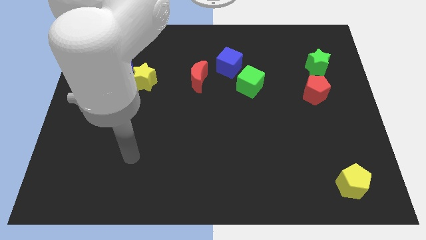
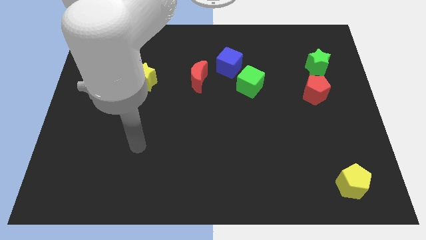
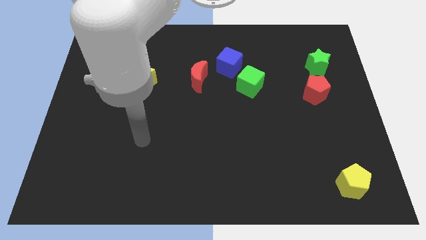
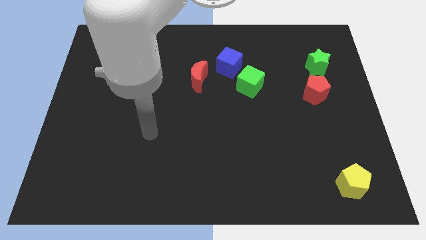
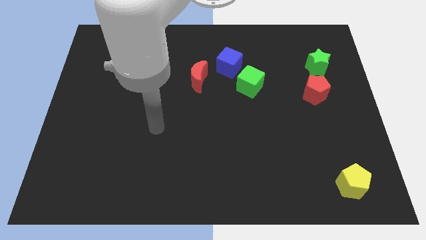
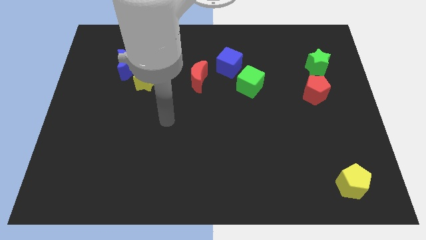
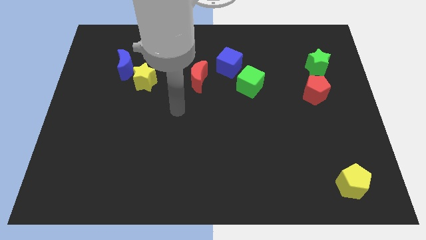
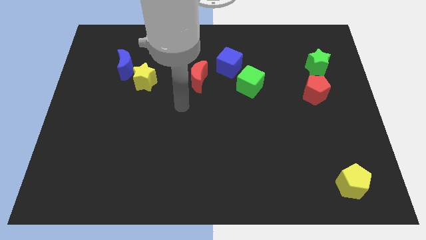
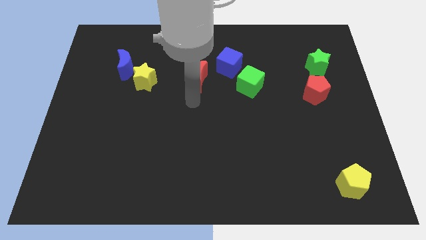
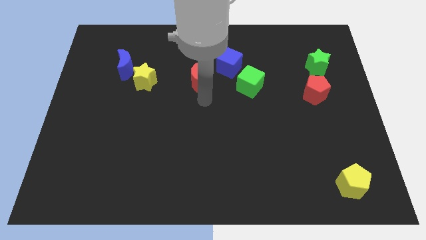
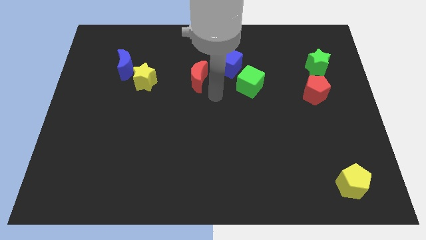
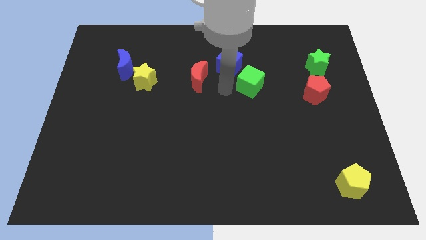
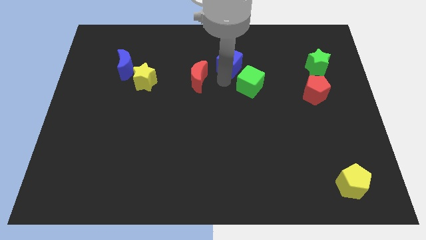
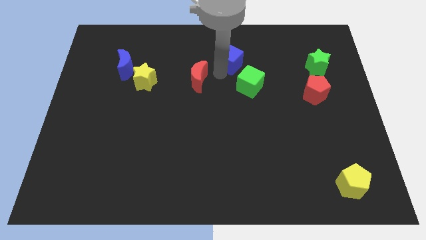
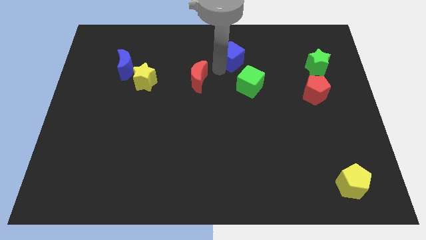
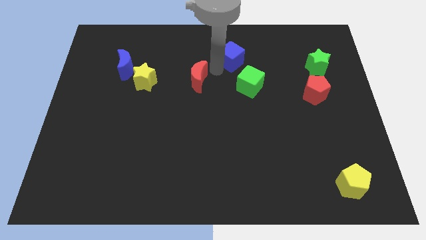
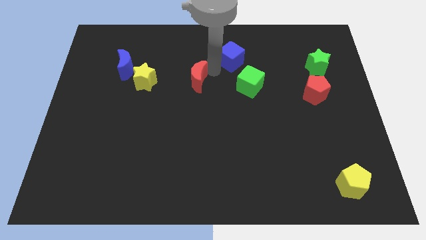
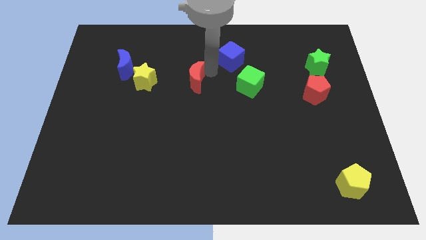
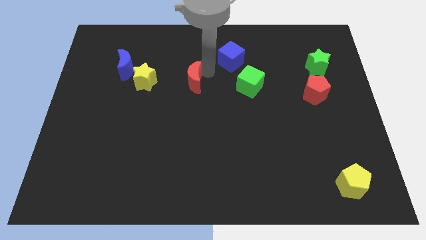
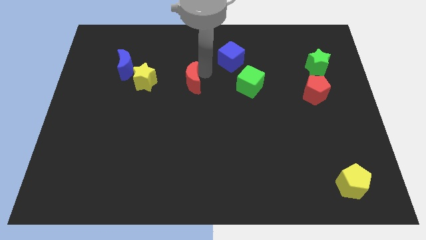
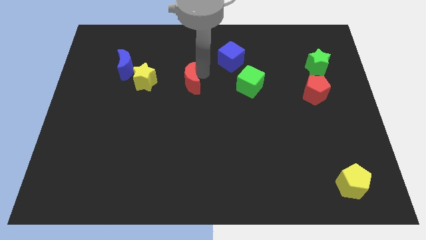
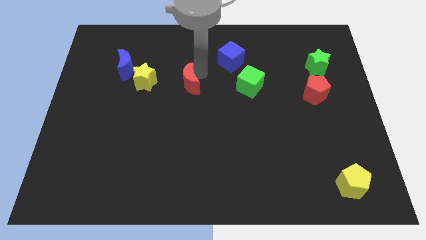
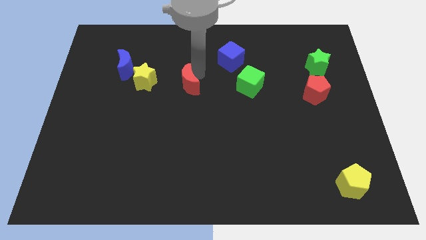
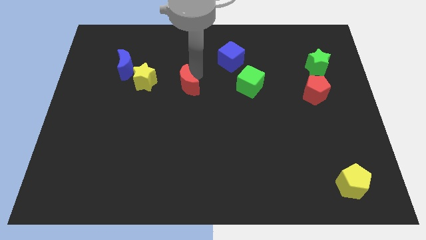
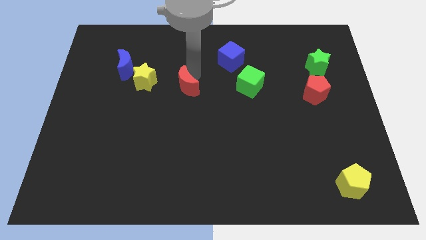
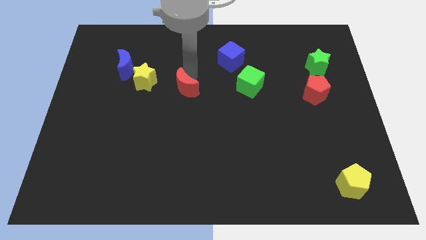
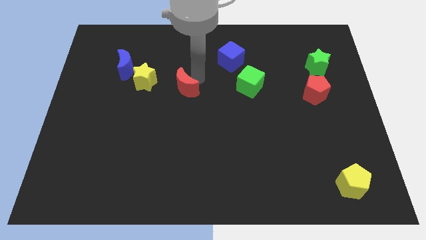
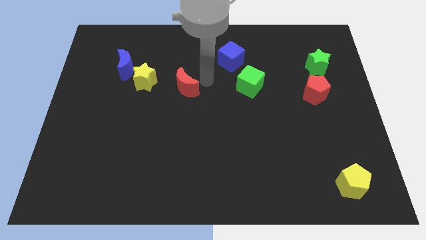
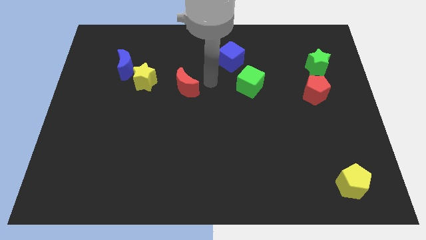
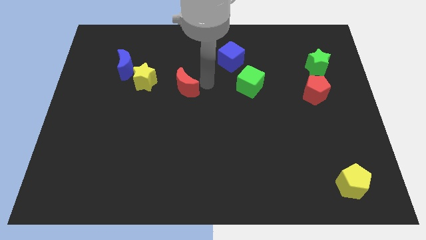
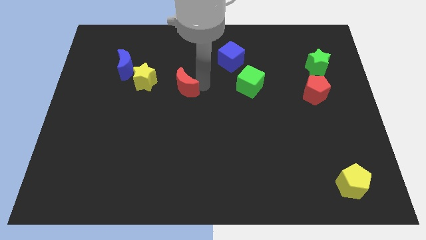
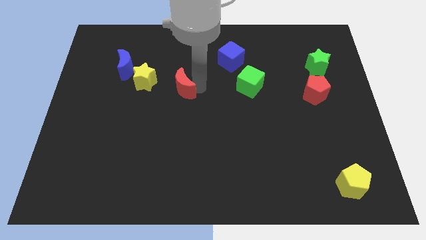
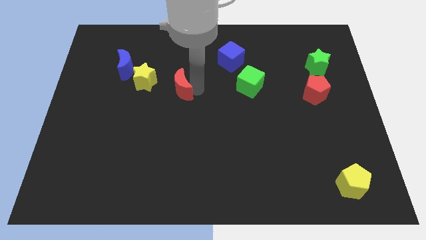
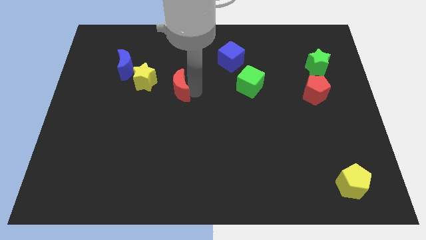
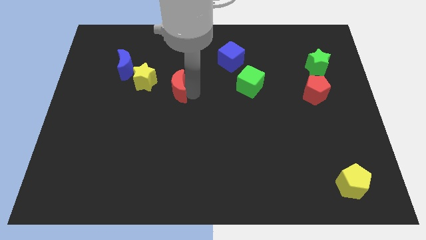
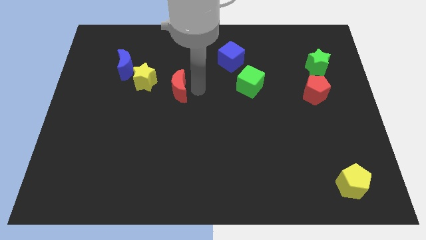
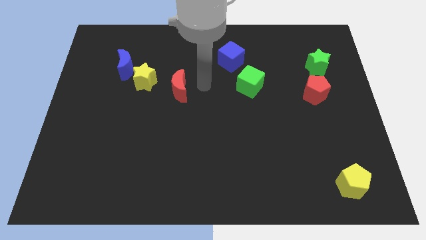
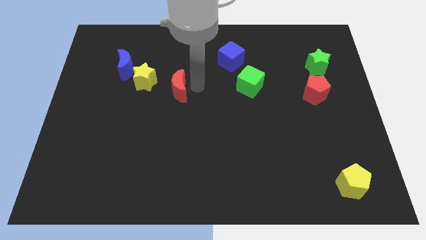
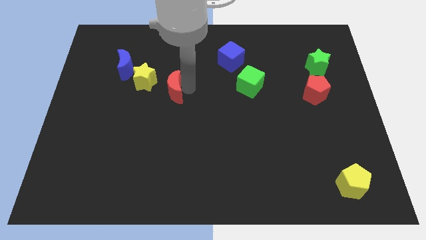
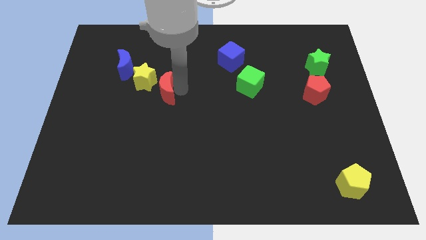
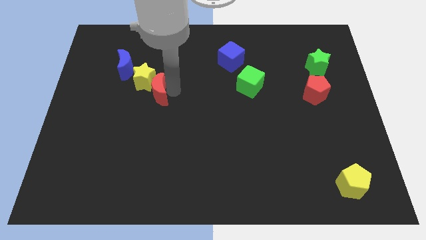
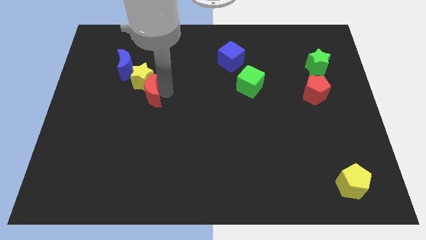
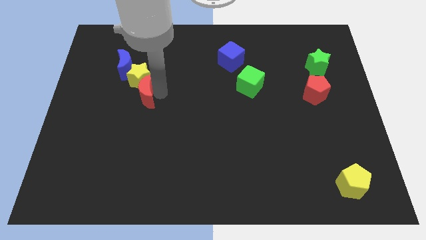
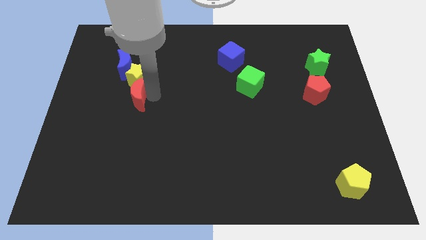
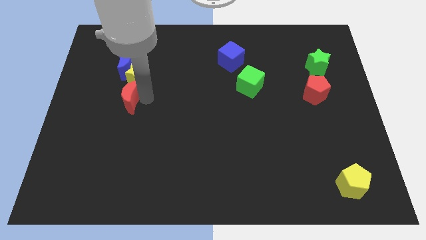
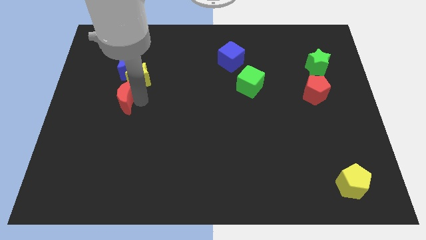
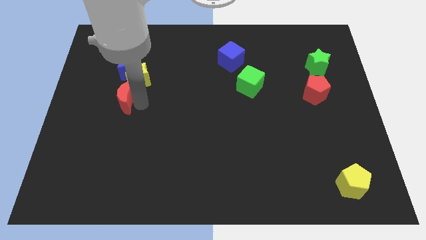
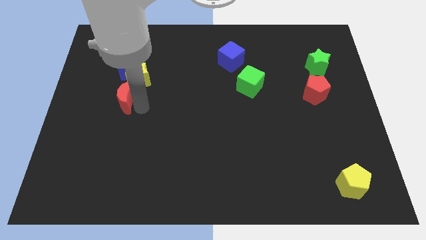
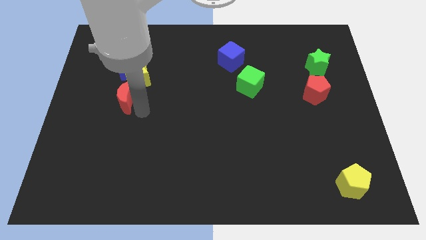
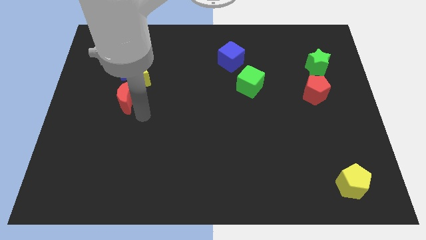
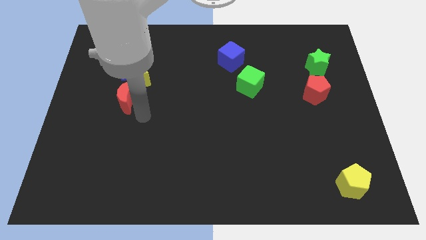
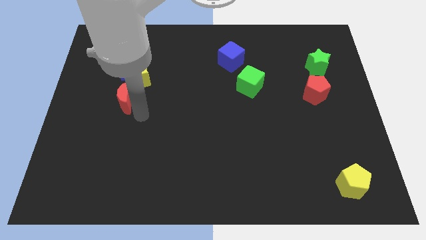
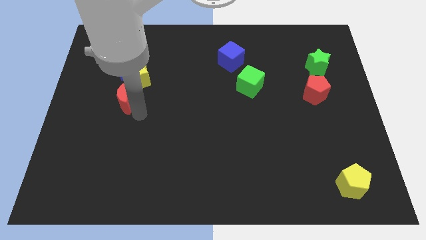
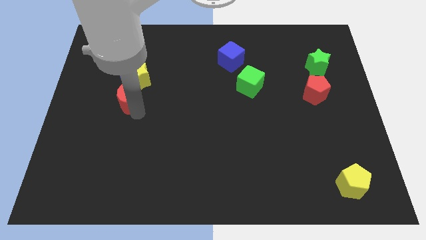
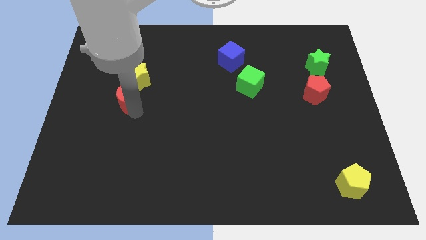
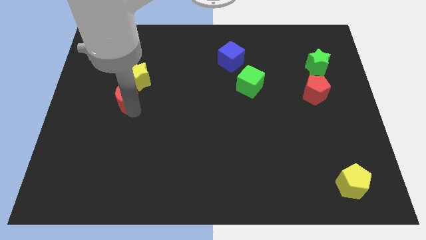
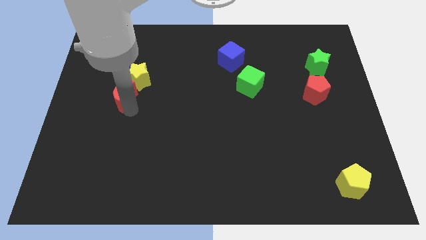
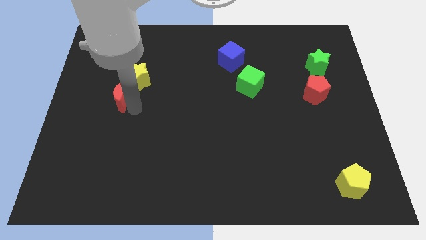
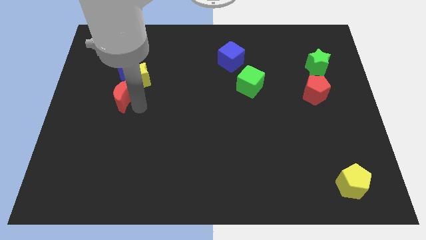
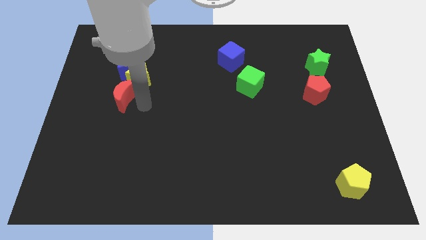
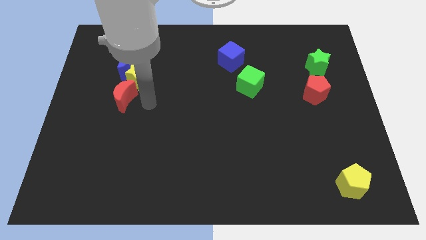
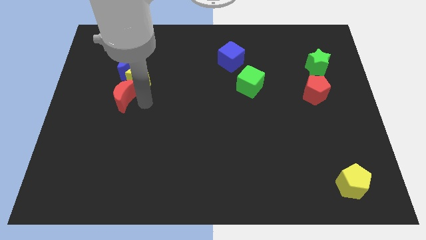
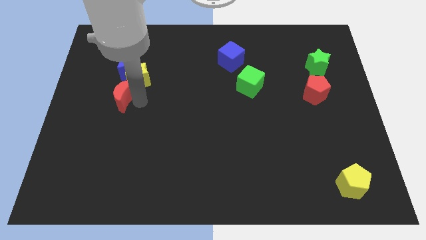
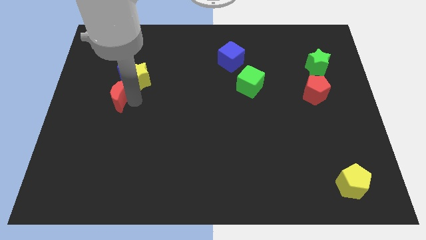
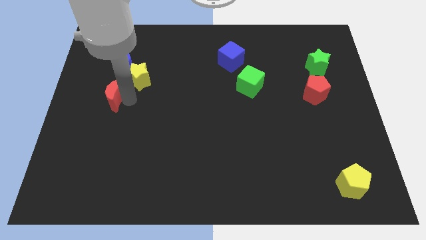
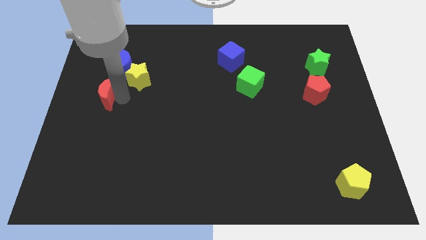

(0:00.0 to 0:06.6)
push the red moon to the left side of the board

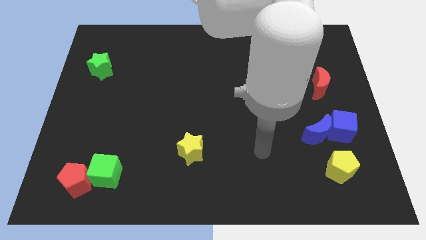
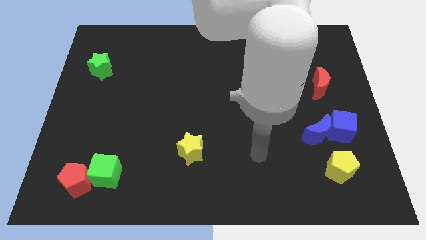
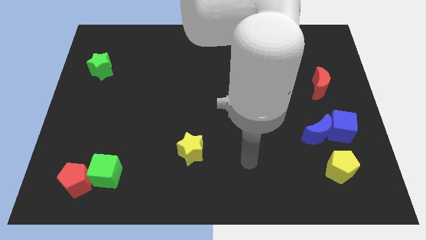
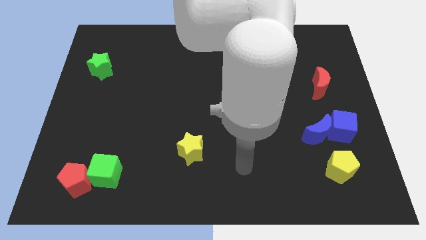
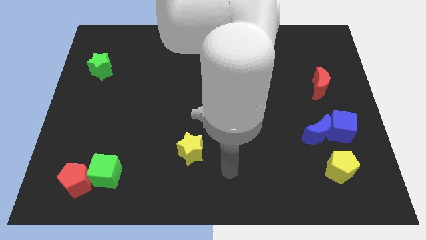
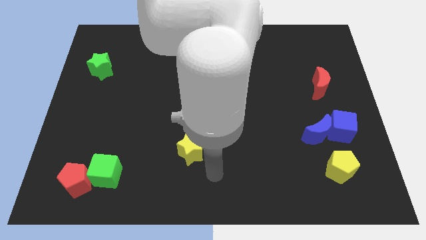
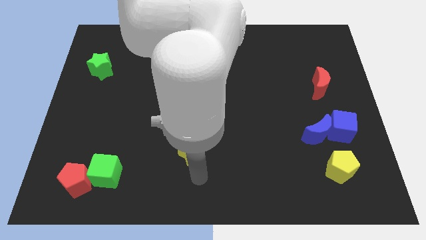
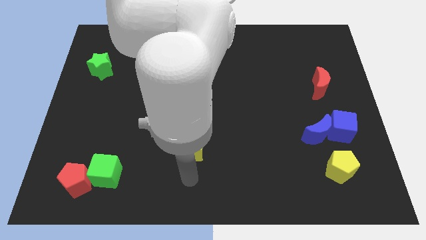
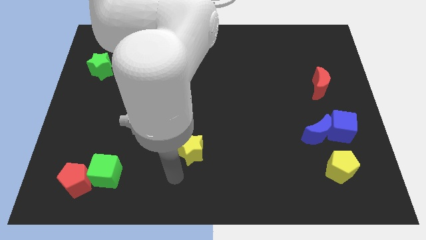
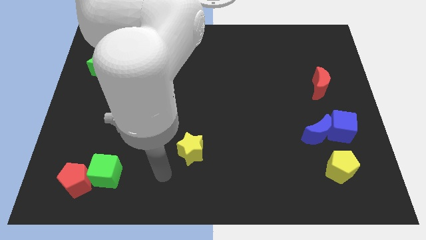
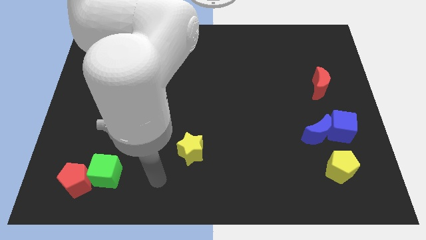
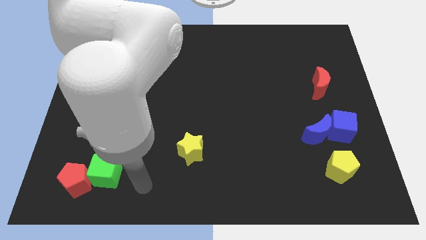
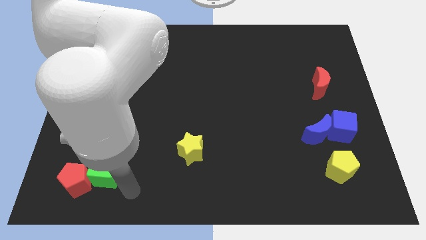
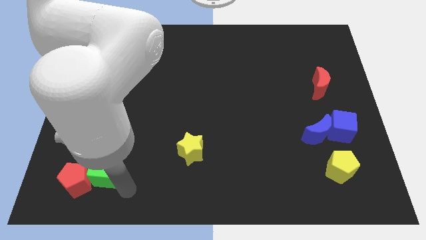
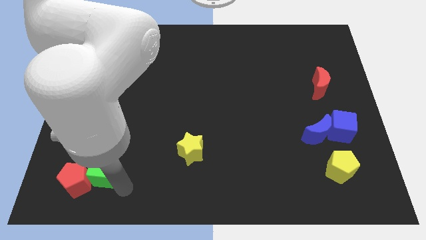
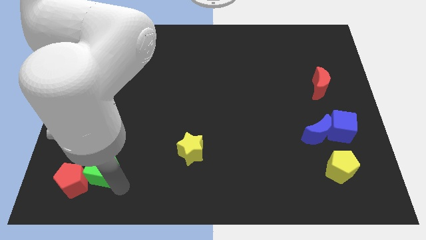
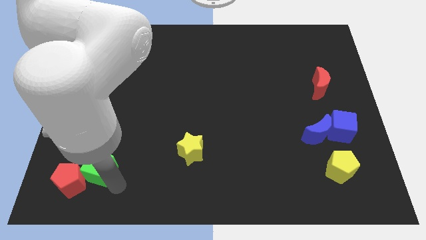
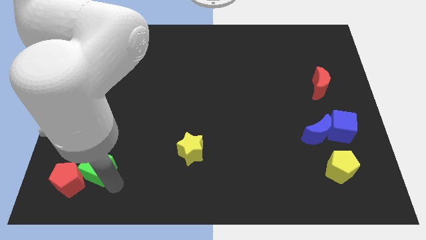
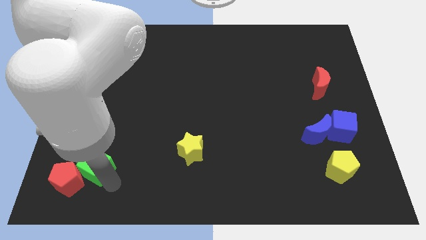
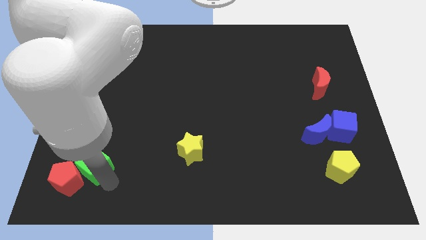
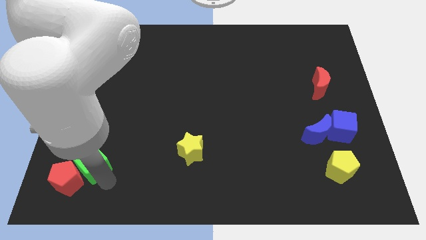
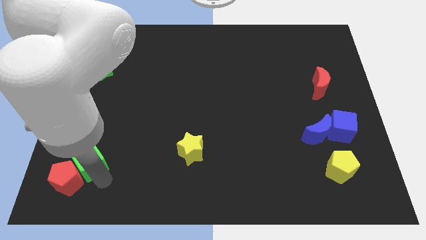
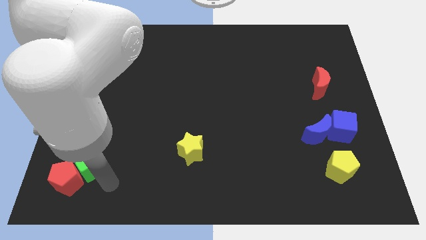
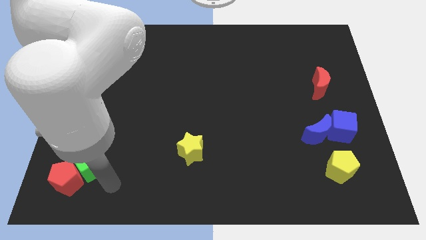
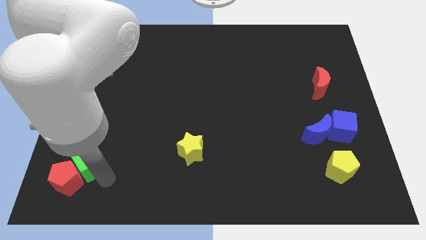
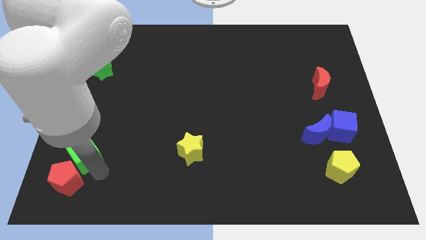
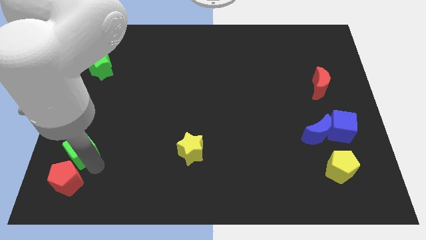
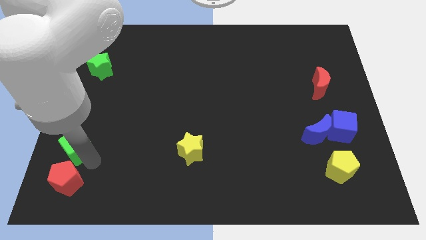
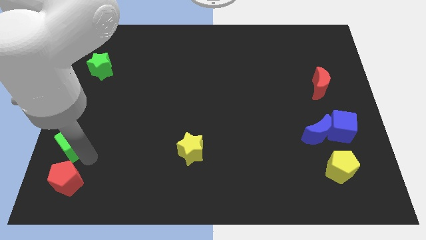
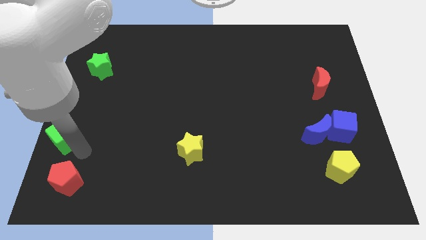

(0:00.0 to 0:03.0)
put the green cube to the center left
